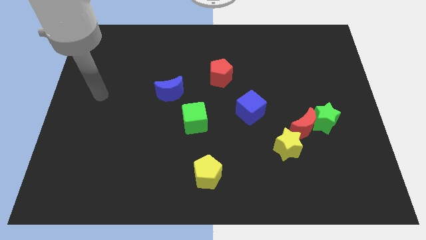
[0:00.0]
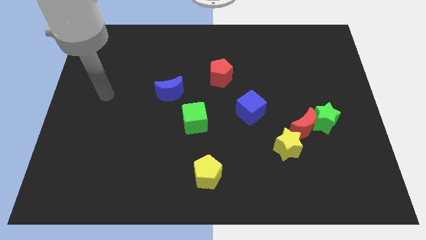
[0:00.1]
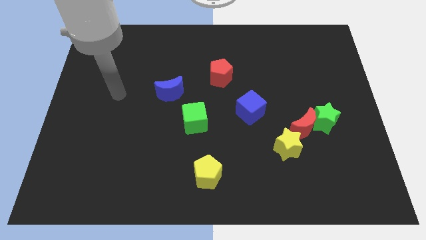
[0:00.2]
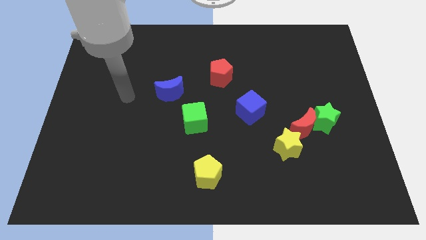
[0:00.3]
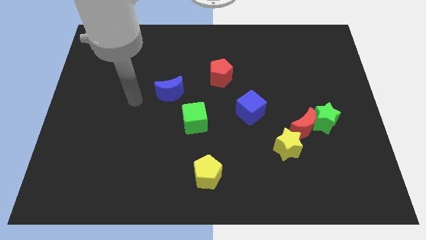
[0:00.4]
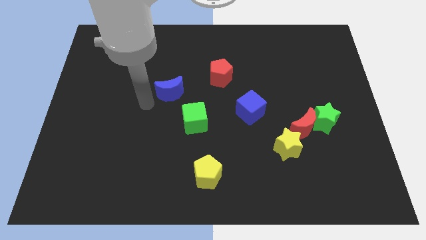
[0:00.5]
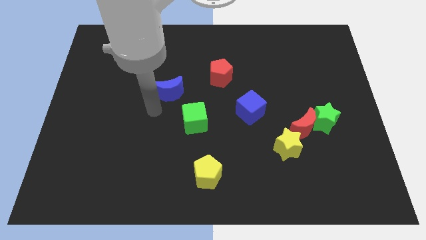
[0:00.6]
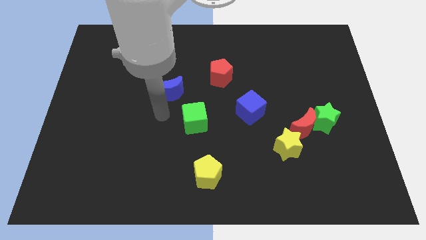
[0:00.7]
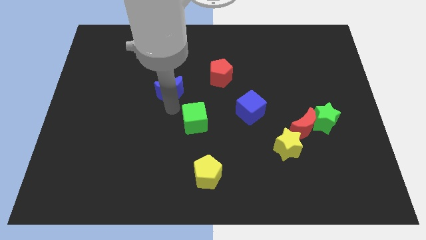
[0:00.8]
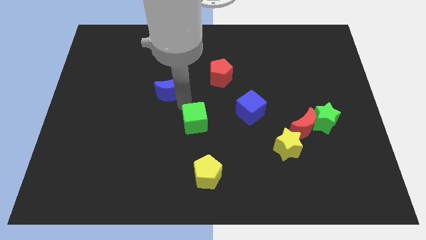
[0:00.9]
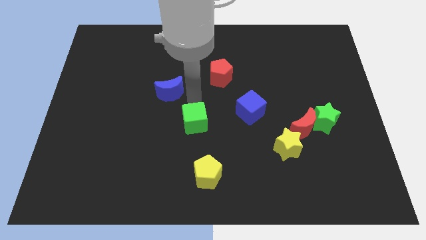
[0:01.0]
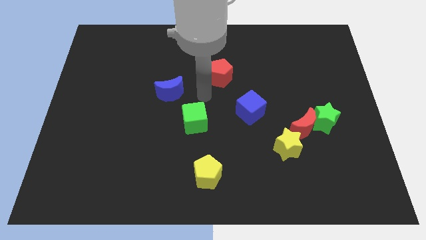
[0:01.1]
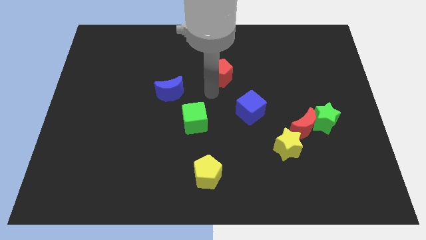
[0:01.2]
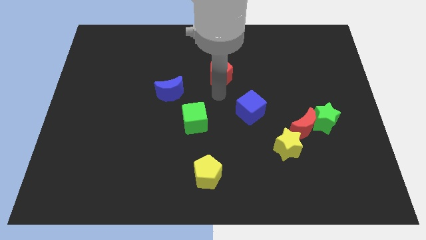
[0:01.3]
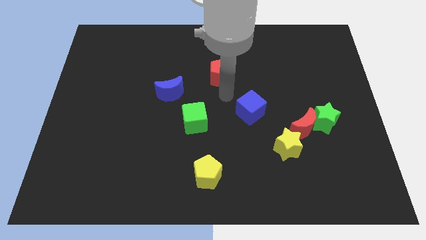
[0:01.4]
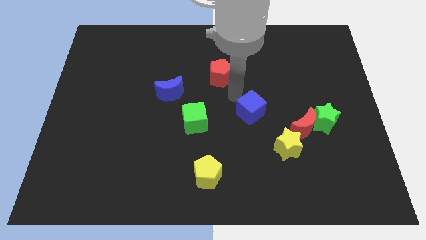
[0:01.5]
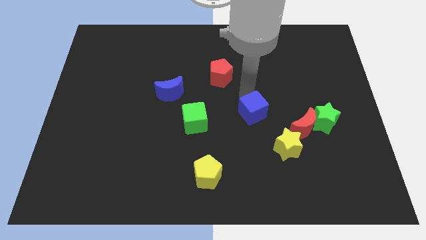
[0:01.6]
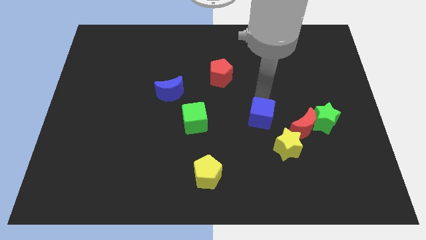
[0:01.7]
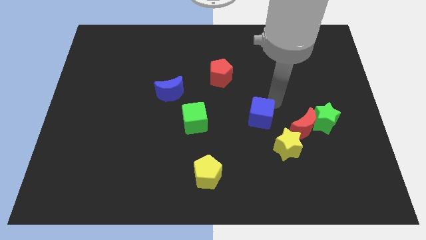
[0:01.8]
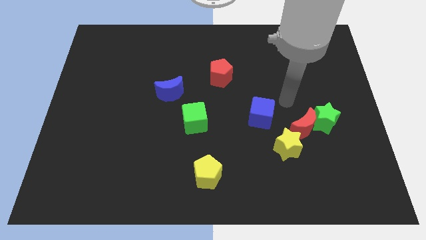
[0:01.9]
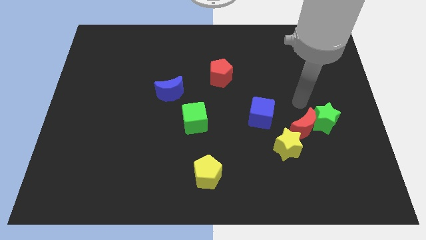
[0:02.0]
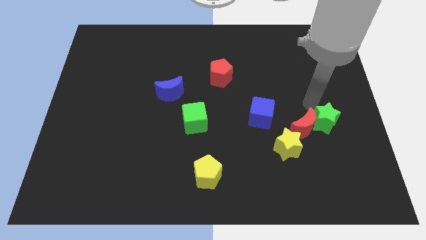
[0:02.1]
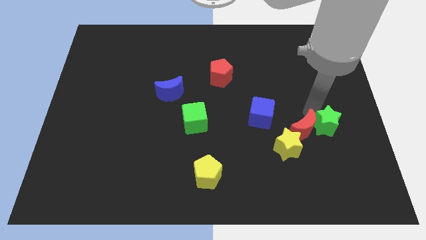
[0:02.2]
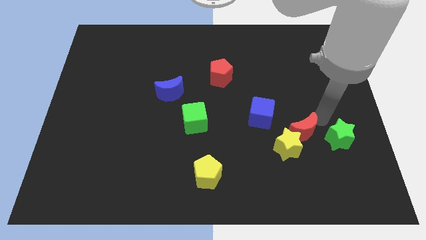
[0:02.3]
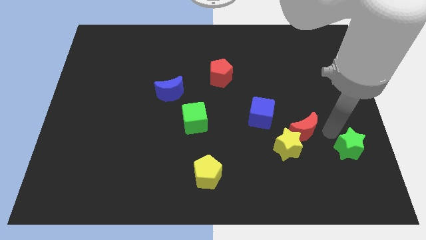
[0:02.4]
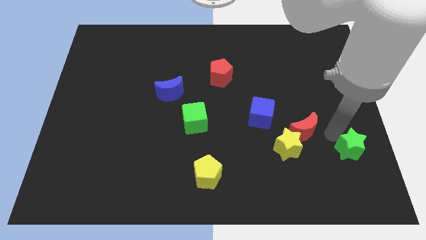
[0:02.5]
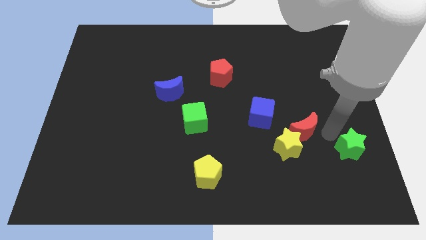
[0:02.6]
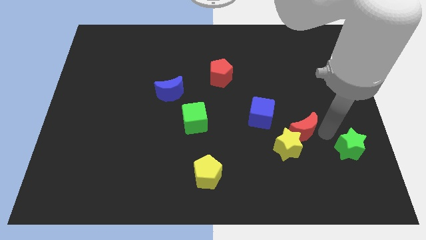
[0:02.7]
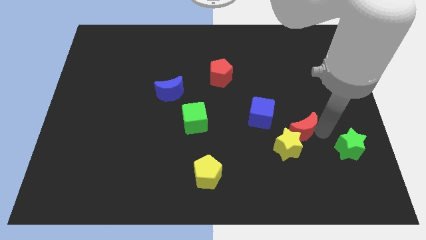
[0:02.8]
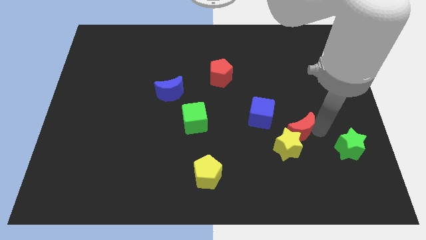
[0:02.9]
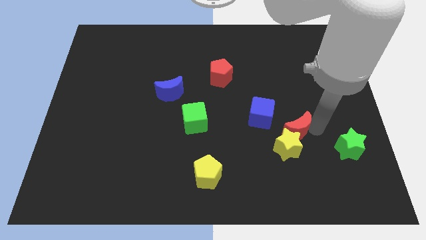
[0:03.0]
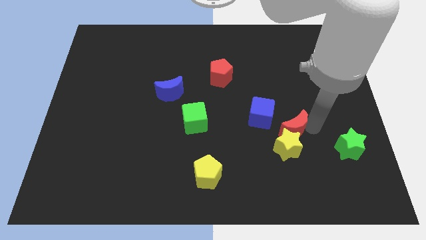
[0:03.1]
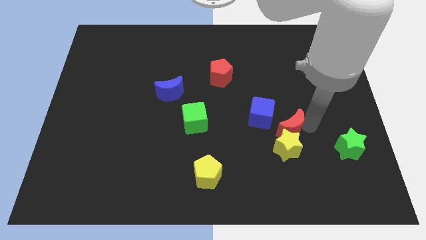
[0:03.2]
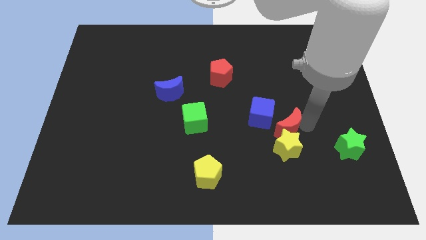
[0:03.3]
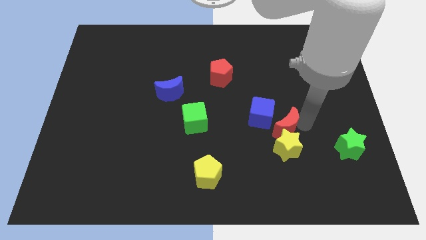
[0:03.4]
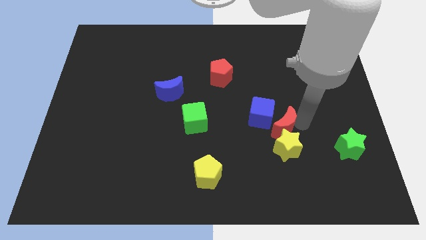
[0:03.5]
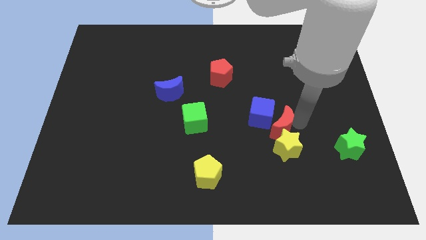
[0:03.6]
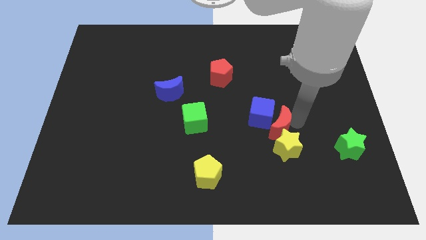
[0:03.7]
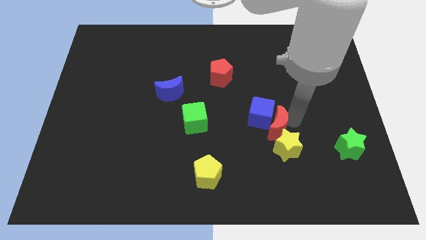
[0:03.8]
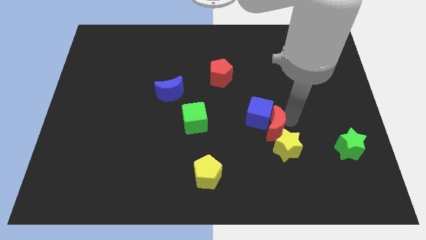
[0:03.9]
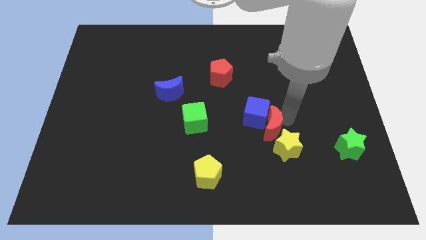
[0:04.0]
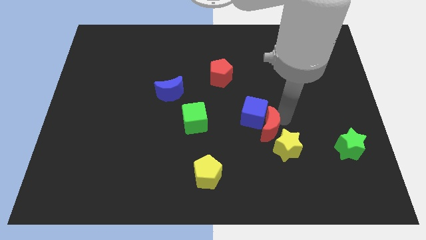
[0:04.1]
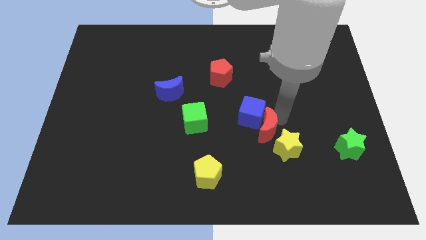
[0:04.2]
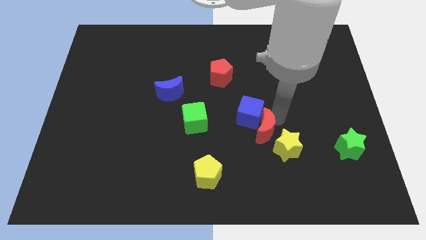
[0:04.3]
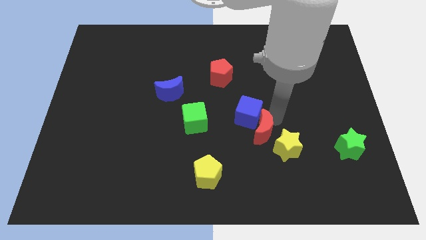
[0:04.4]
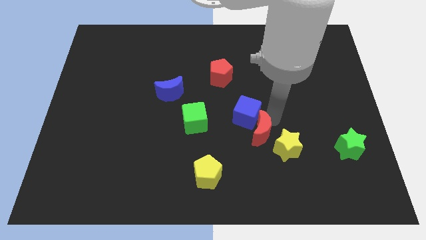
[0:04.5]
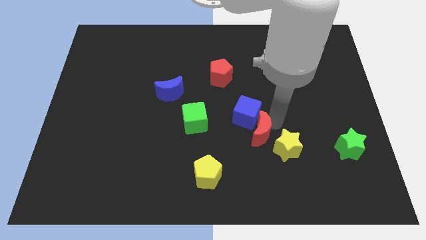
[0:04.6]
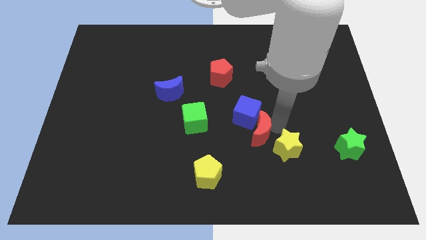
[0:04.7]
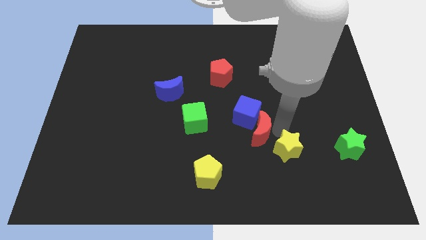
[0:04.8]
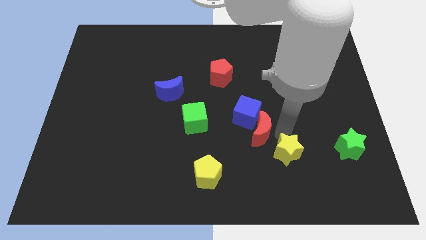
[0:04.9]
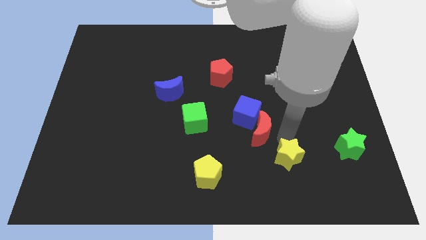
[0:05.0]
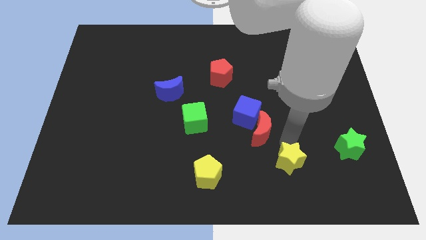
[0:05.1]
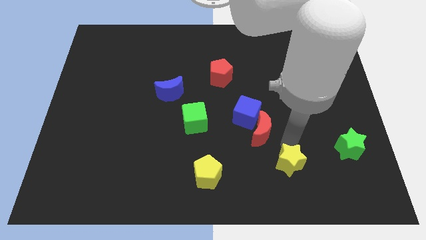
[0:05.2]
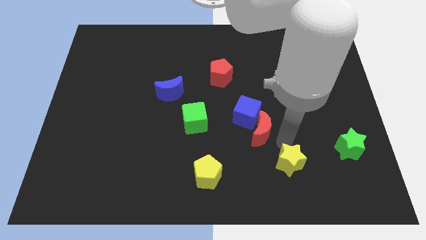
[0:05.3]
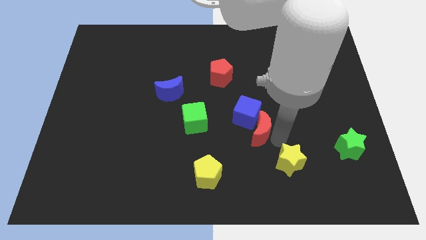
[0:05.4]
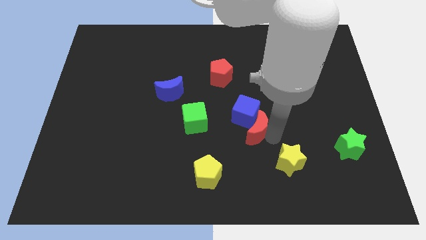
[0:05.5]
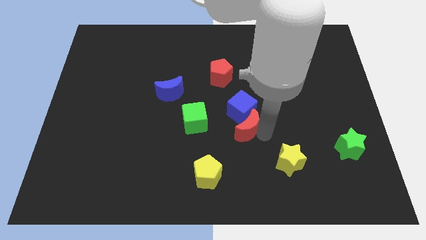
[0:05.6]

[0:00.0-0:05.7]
move the red moon to the center

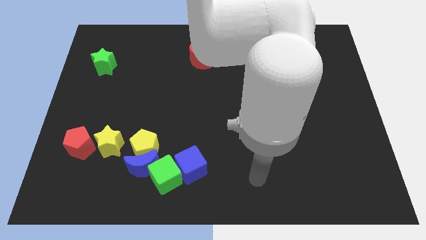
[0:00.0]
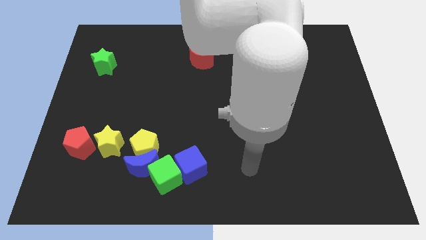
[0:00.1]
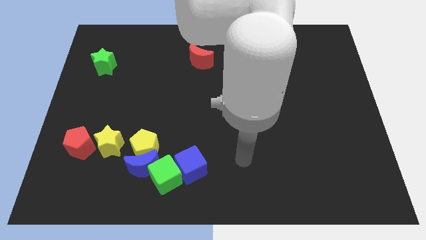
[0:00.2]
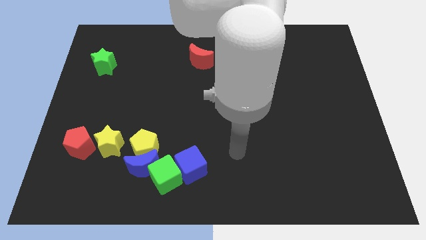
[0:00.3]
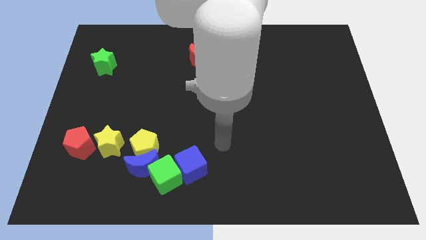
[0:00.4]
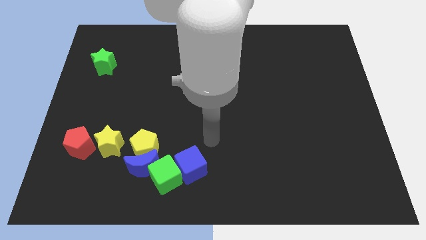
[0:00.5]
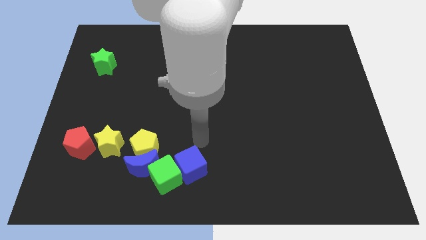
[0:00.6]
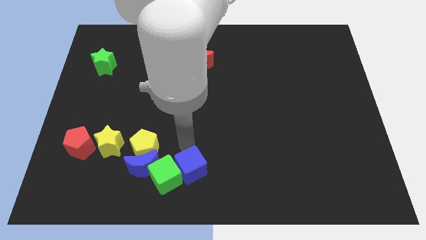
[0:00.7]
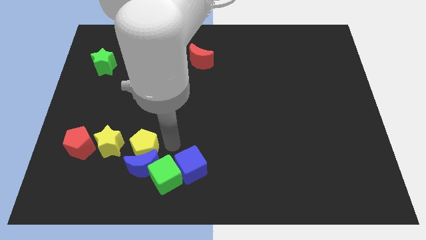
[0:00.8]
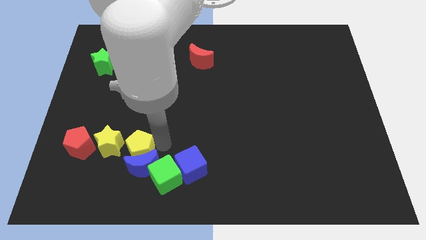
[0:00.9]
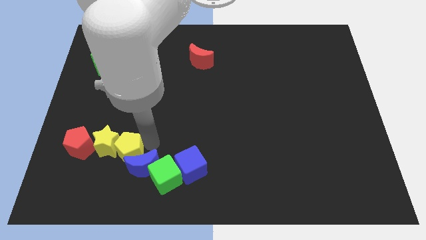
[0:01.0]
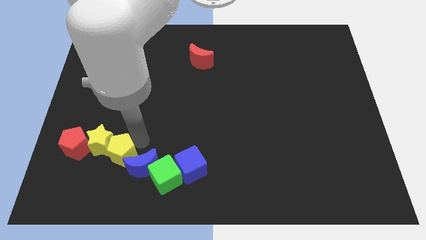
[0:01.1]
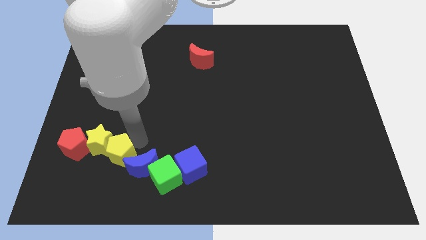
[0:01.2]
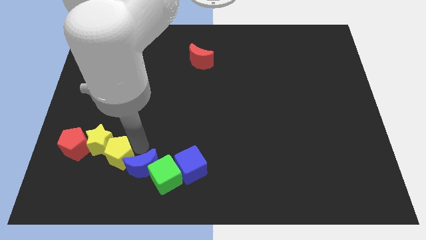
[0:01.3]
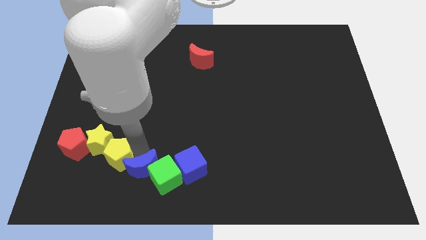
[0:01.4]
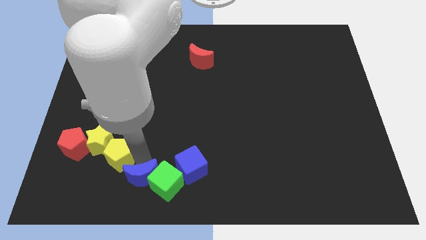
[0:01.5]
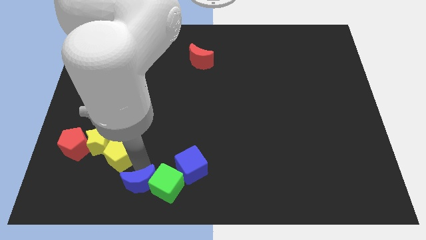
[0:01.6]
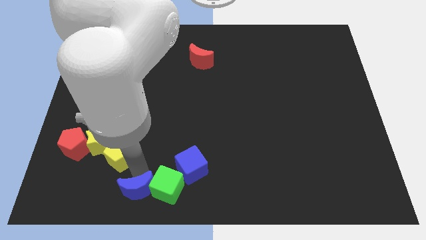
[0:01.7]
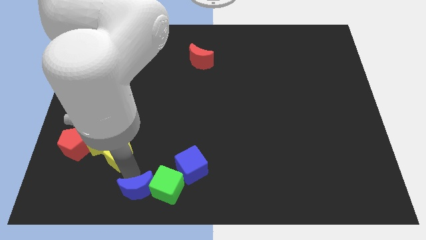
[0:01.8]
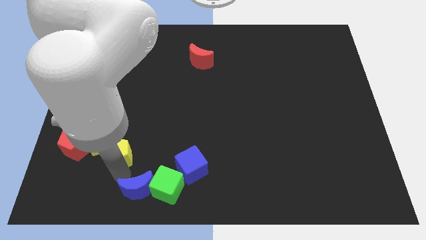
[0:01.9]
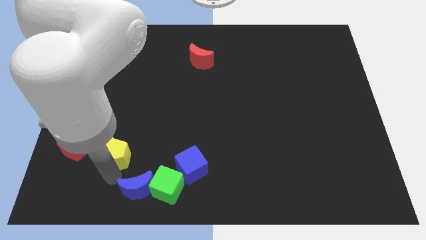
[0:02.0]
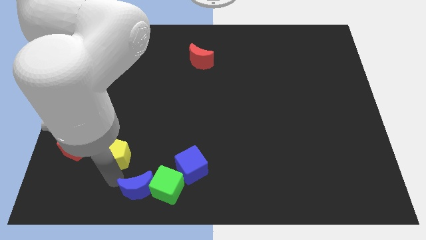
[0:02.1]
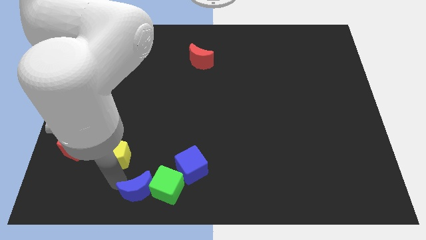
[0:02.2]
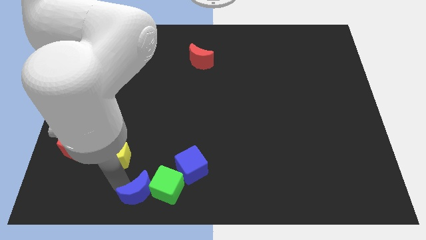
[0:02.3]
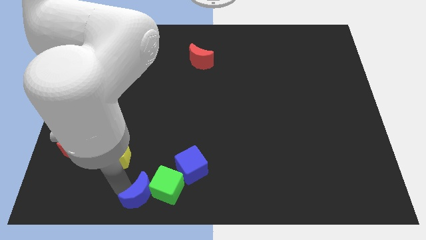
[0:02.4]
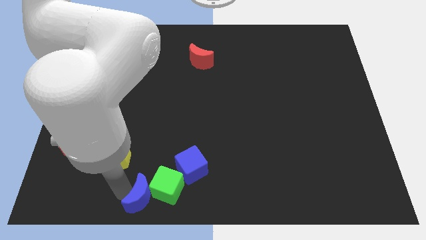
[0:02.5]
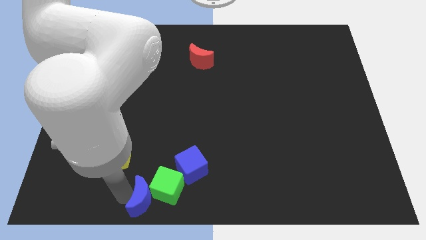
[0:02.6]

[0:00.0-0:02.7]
put the blue moon to the bottom
